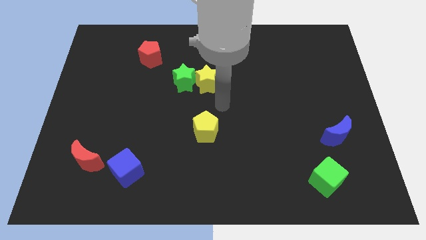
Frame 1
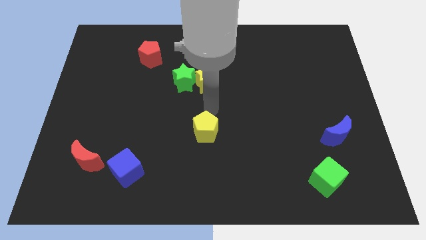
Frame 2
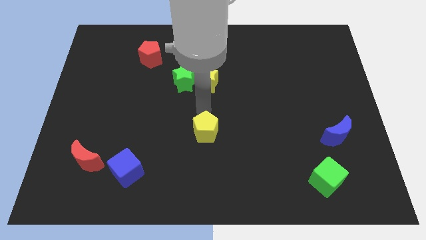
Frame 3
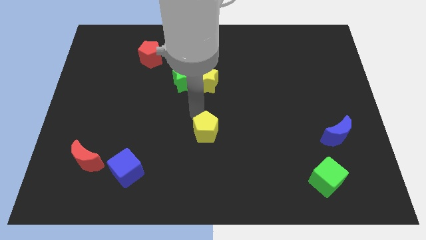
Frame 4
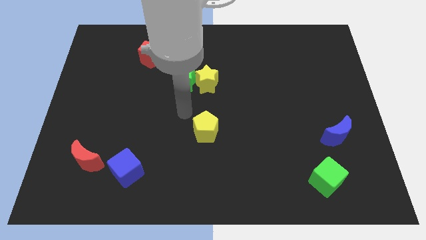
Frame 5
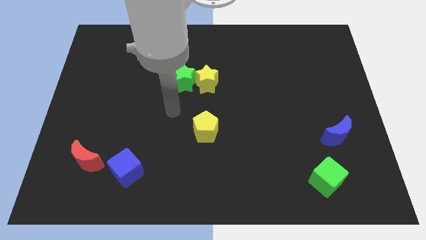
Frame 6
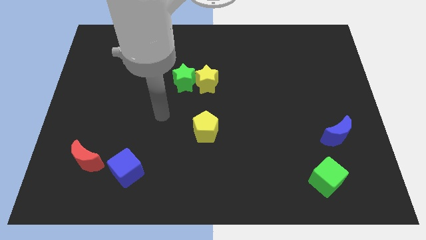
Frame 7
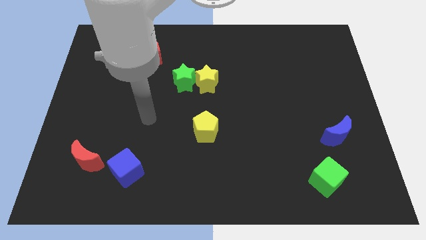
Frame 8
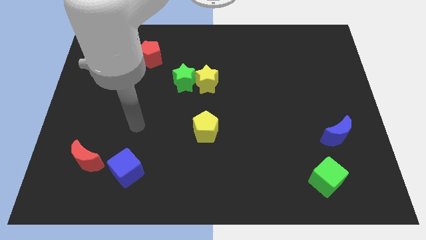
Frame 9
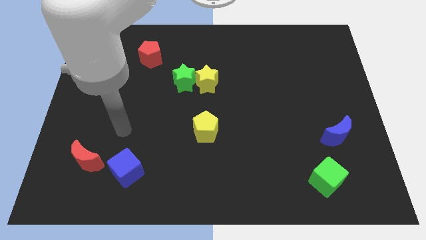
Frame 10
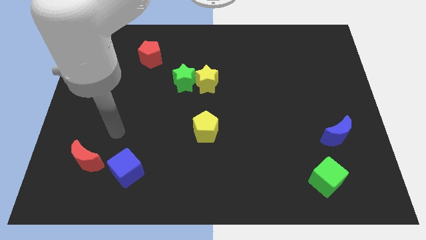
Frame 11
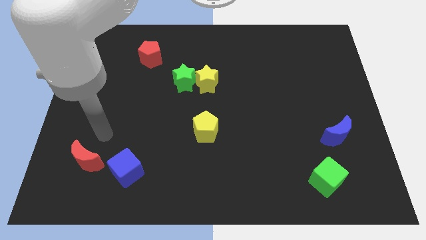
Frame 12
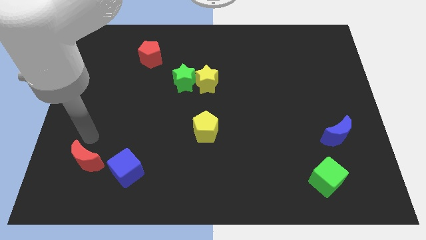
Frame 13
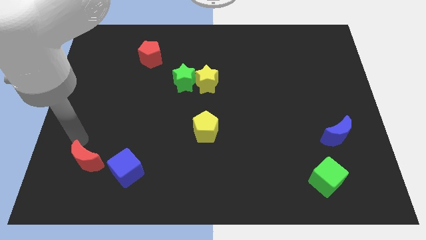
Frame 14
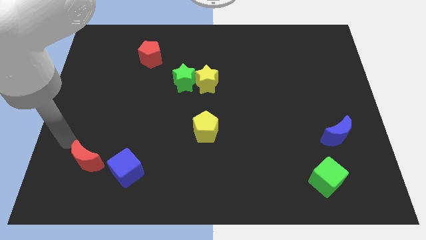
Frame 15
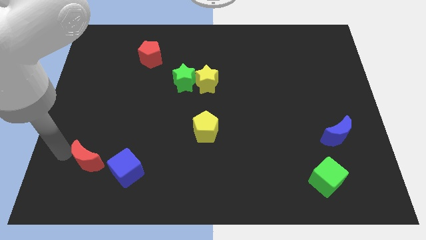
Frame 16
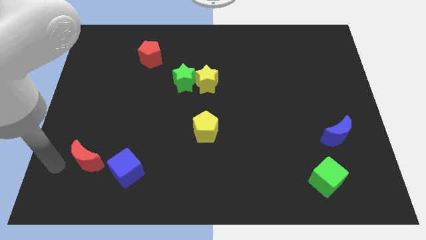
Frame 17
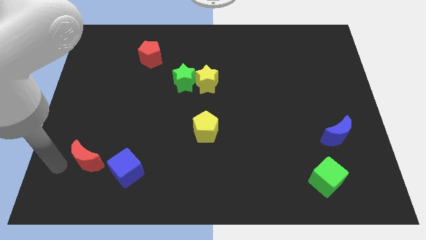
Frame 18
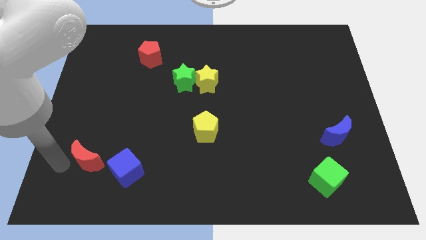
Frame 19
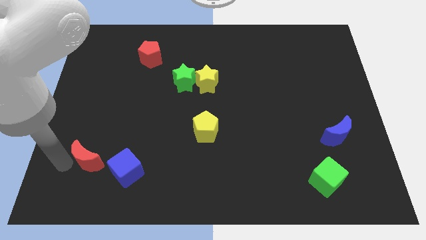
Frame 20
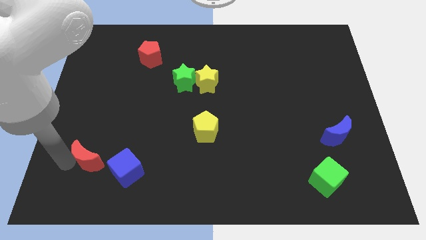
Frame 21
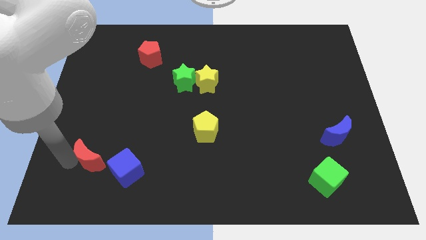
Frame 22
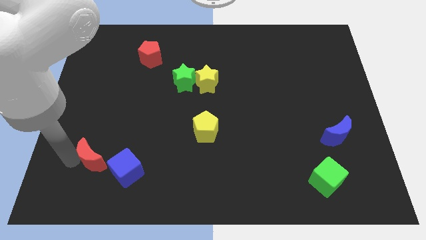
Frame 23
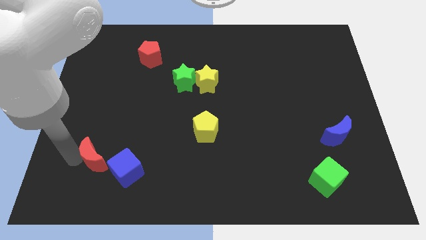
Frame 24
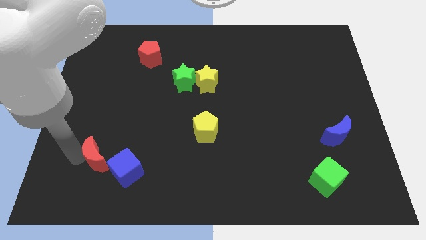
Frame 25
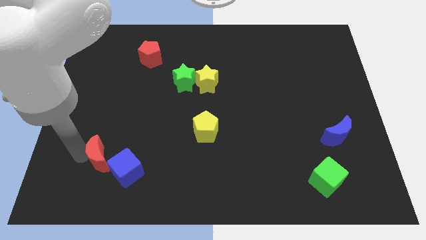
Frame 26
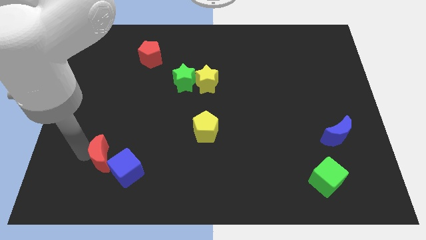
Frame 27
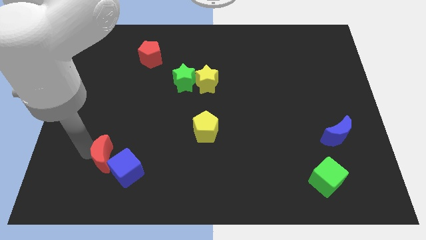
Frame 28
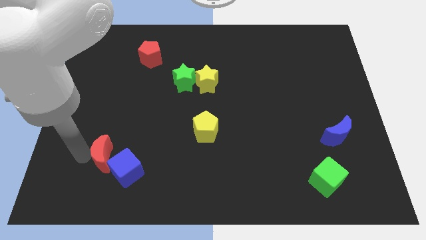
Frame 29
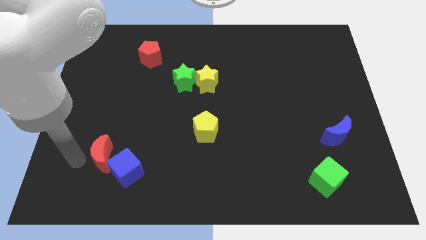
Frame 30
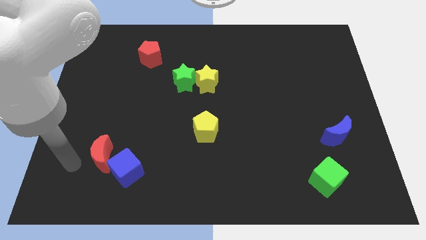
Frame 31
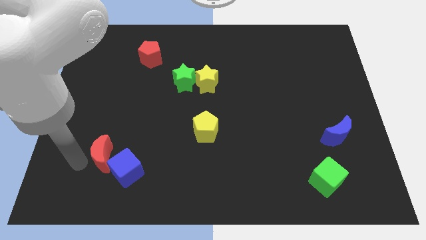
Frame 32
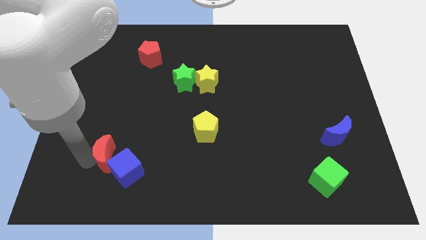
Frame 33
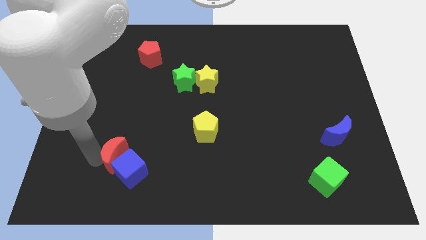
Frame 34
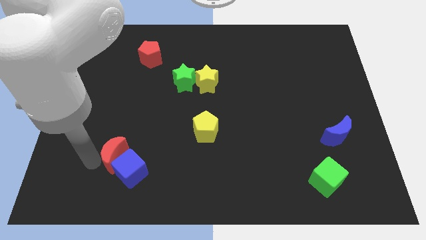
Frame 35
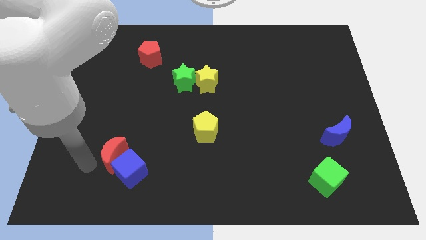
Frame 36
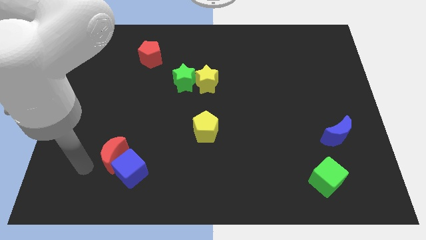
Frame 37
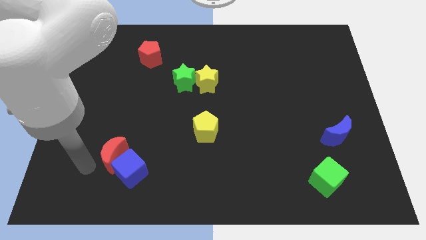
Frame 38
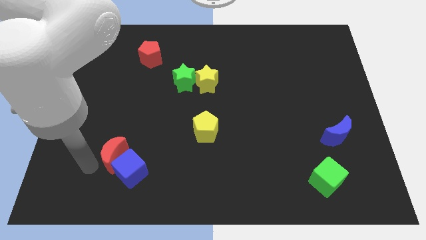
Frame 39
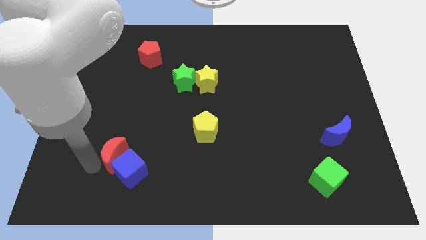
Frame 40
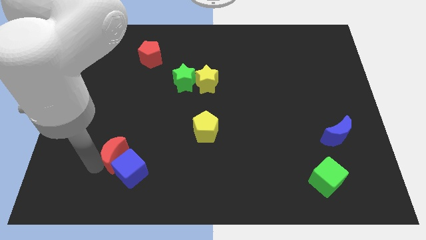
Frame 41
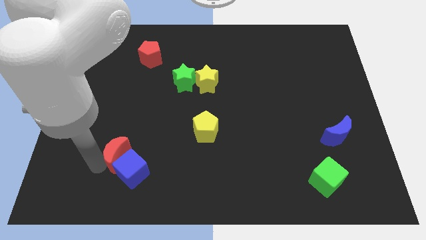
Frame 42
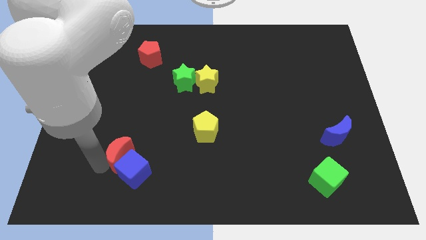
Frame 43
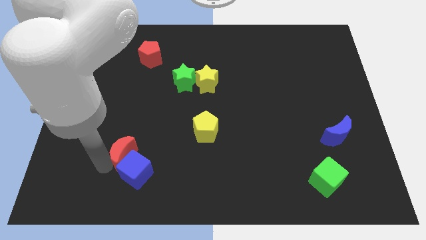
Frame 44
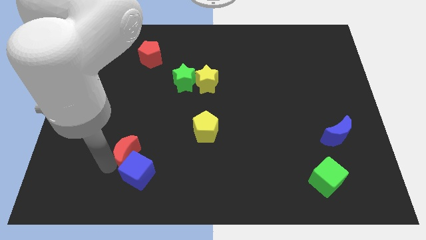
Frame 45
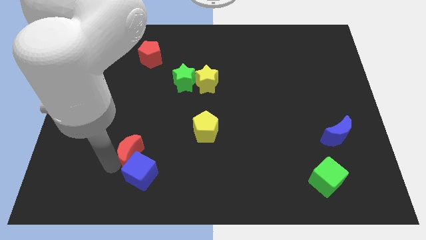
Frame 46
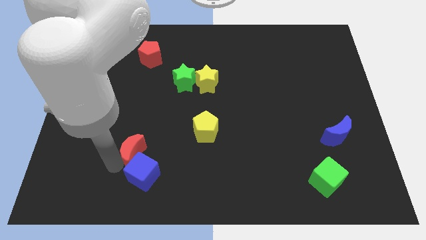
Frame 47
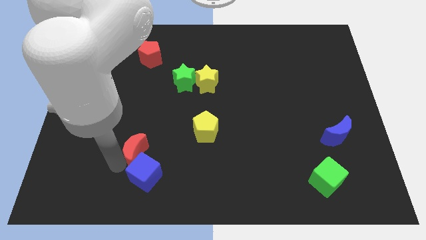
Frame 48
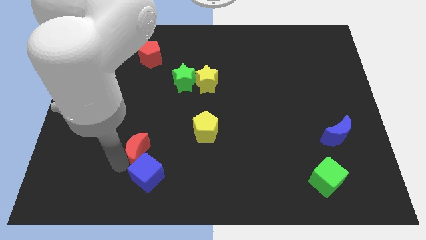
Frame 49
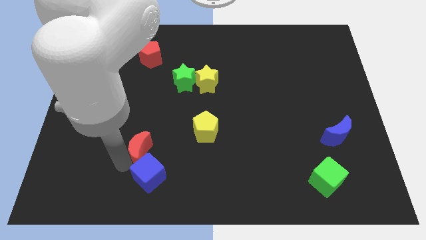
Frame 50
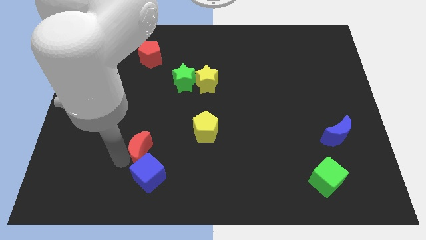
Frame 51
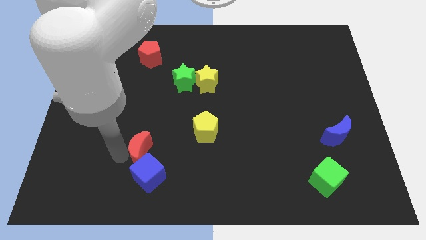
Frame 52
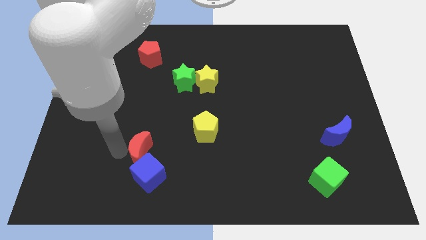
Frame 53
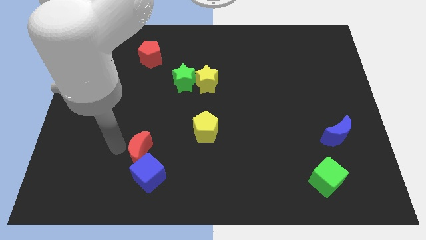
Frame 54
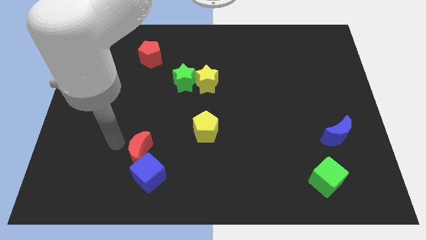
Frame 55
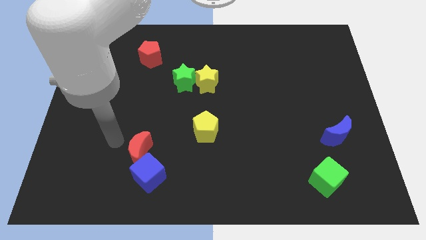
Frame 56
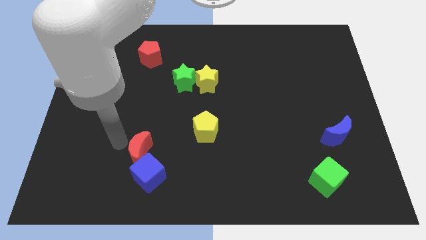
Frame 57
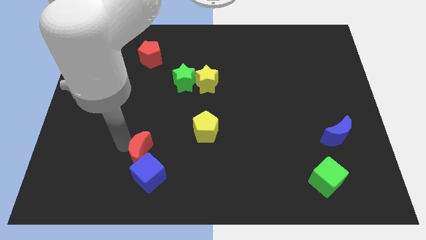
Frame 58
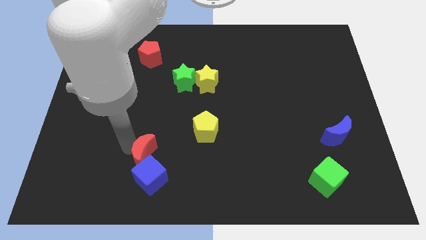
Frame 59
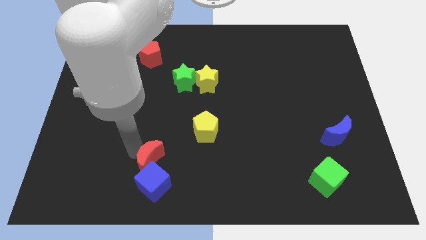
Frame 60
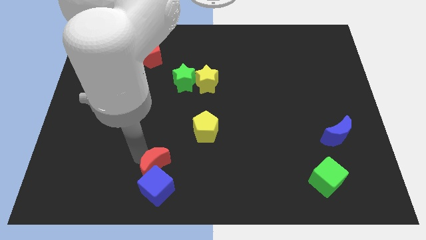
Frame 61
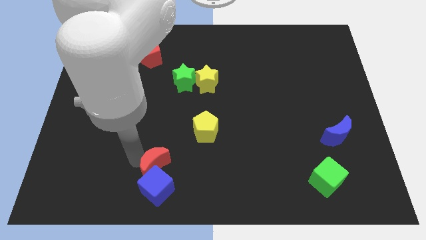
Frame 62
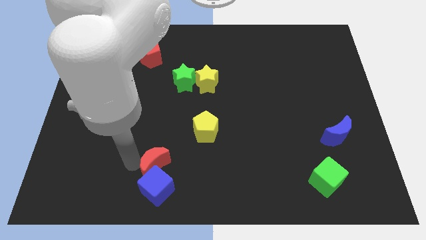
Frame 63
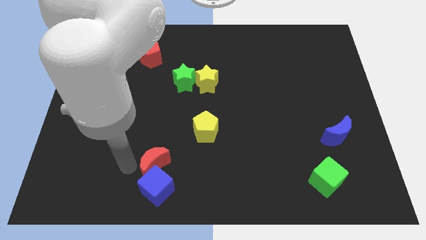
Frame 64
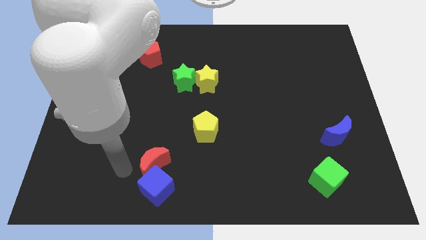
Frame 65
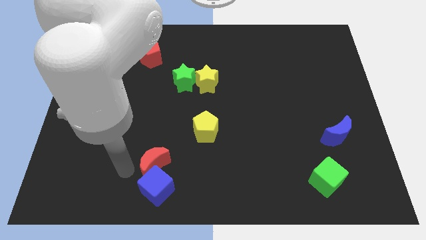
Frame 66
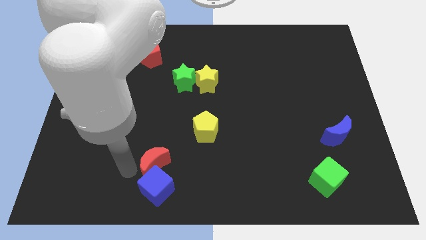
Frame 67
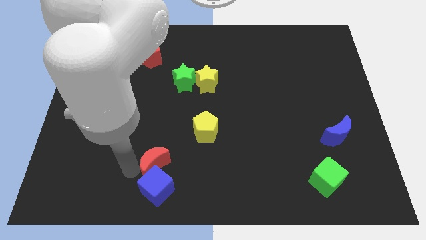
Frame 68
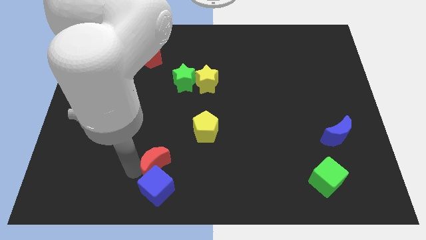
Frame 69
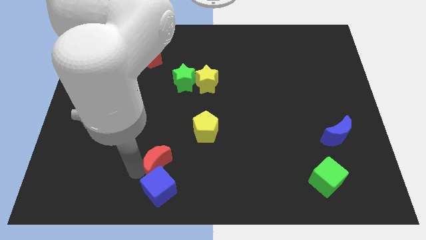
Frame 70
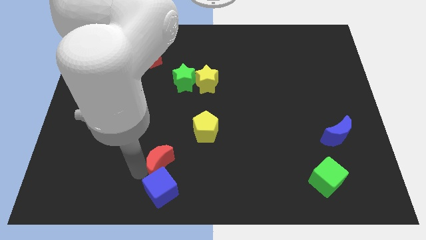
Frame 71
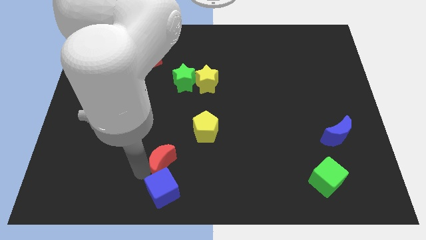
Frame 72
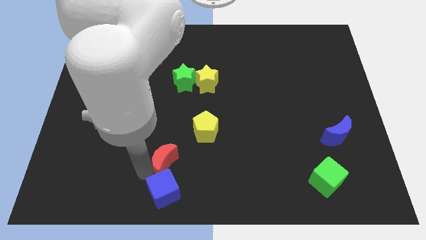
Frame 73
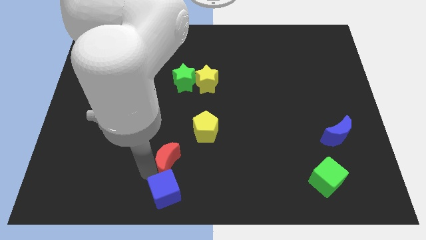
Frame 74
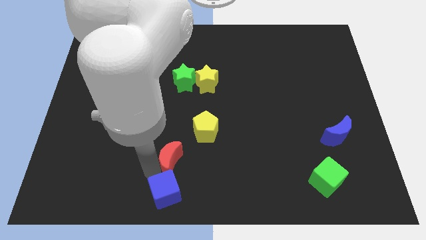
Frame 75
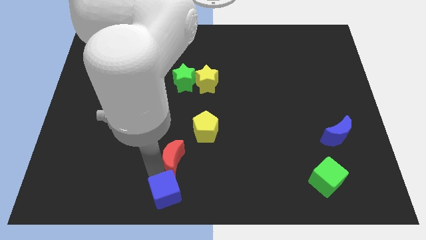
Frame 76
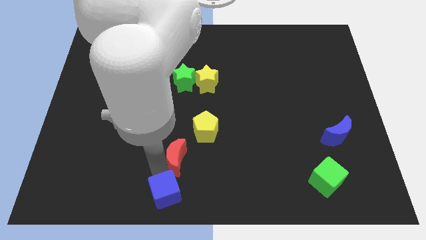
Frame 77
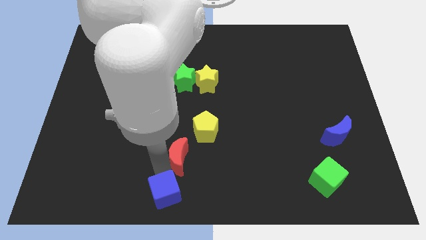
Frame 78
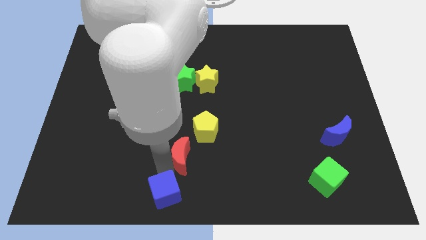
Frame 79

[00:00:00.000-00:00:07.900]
push the red moon to the right
